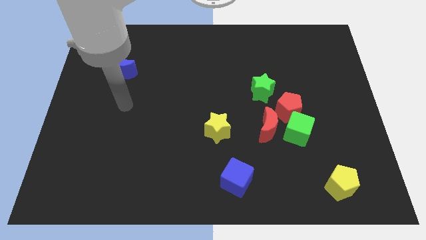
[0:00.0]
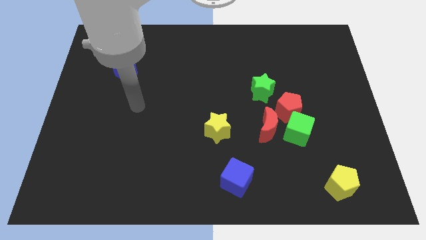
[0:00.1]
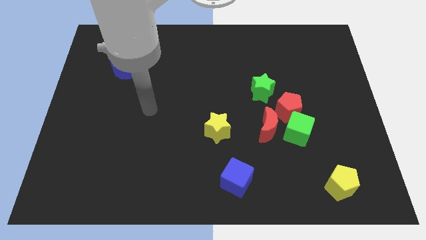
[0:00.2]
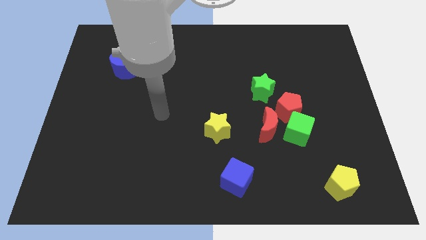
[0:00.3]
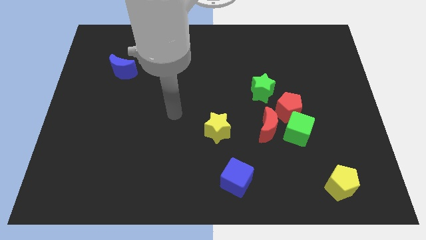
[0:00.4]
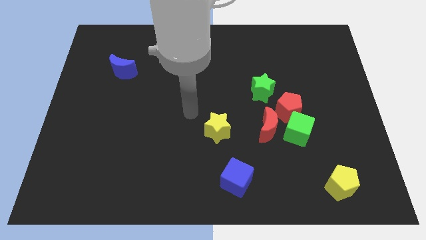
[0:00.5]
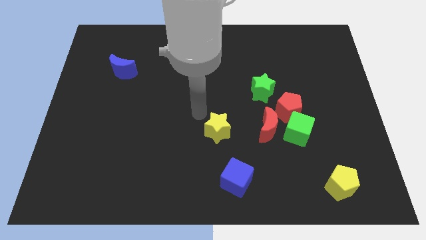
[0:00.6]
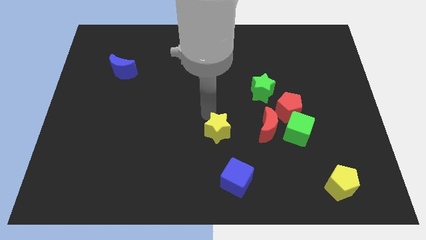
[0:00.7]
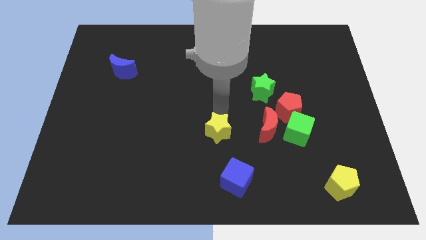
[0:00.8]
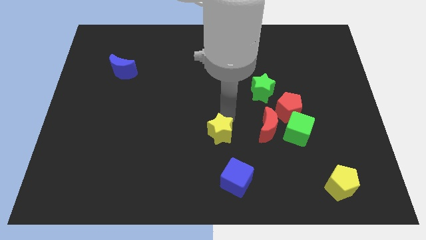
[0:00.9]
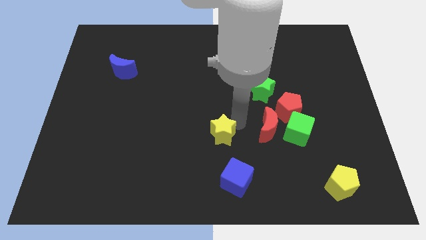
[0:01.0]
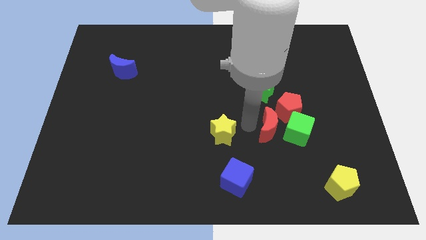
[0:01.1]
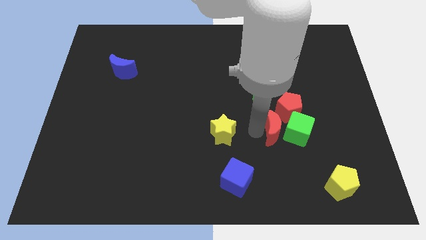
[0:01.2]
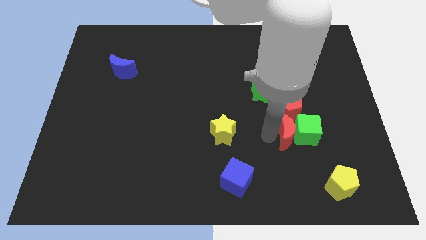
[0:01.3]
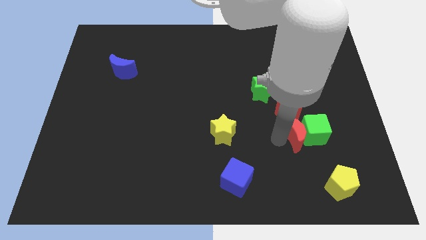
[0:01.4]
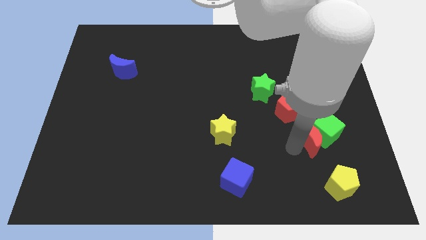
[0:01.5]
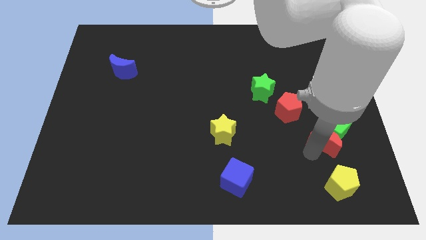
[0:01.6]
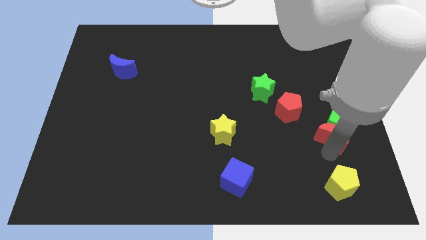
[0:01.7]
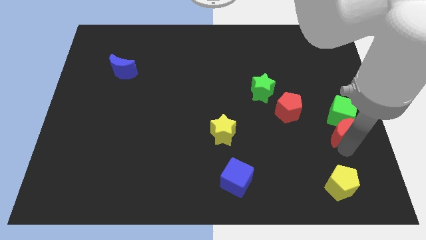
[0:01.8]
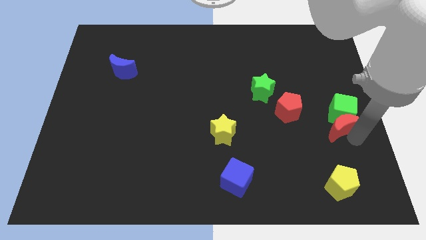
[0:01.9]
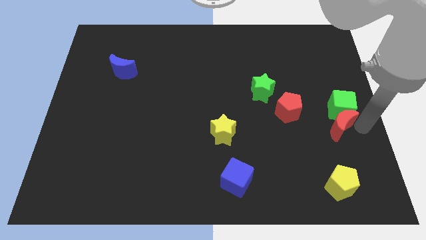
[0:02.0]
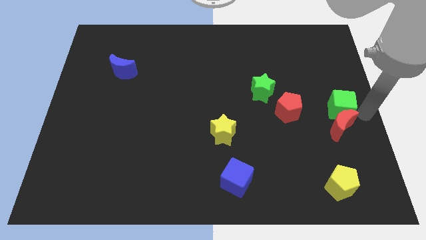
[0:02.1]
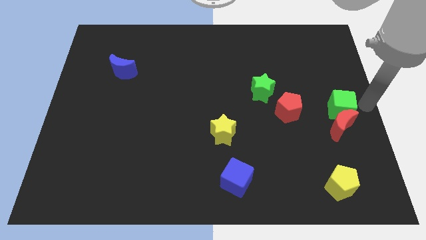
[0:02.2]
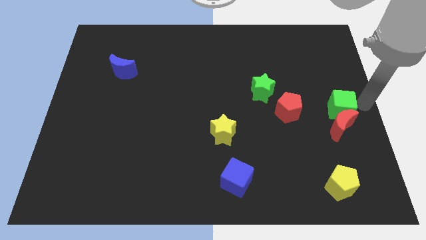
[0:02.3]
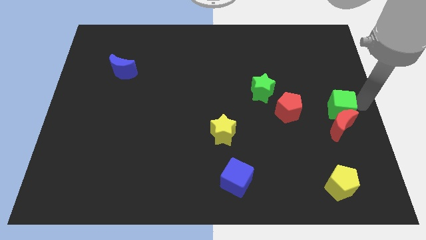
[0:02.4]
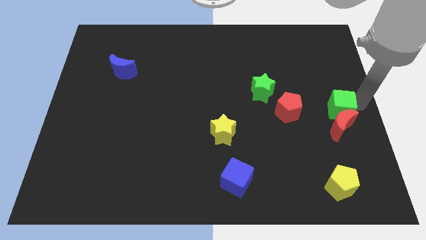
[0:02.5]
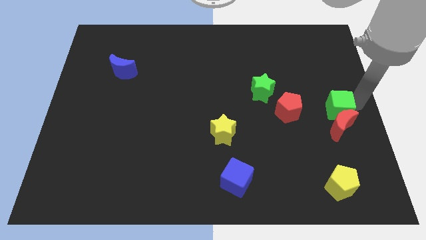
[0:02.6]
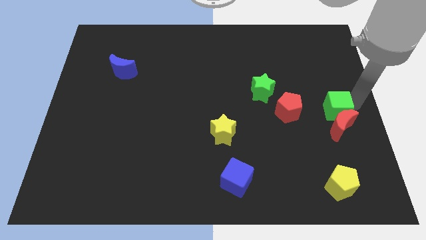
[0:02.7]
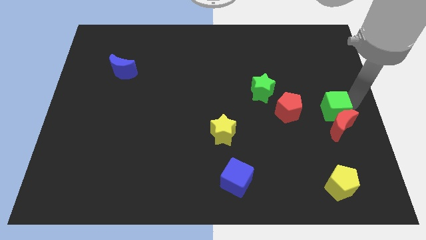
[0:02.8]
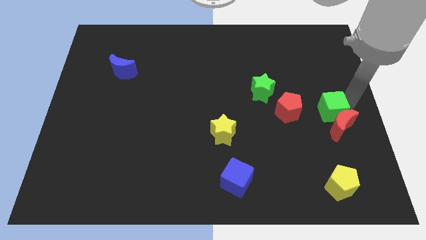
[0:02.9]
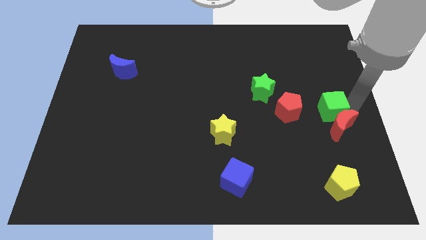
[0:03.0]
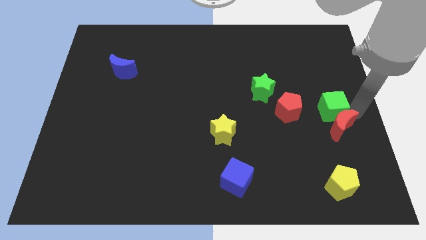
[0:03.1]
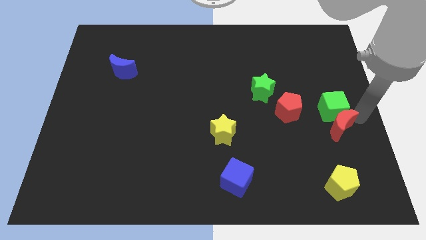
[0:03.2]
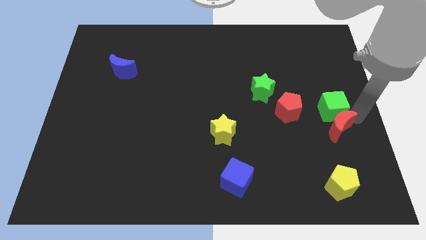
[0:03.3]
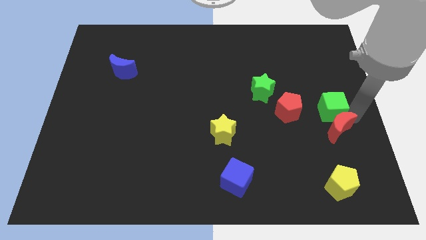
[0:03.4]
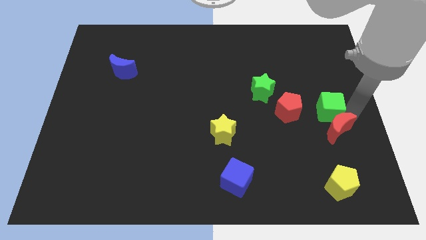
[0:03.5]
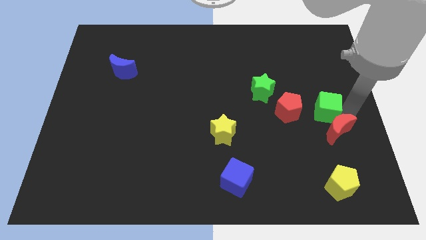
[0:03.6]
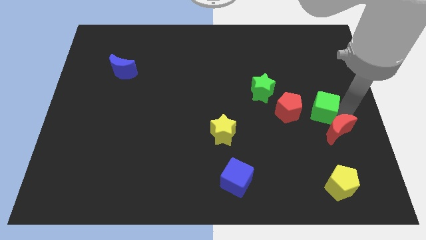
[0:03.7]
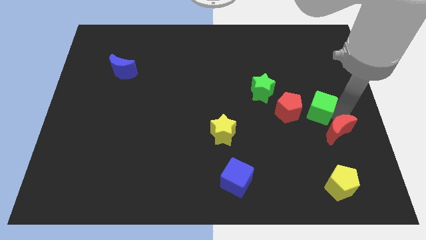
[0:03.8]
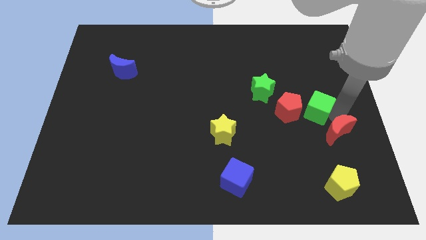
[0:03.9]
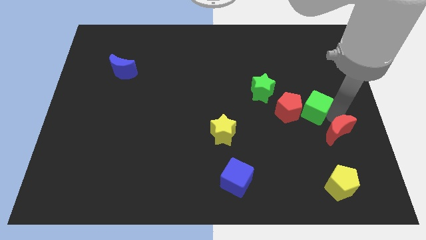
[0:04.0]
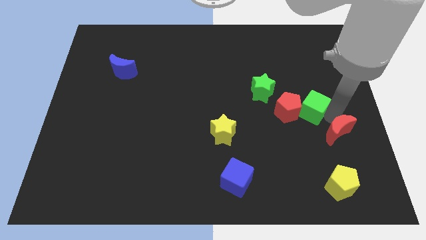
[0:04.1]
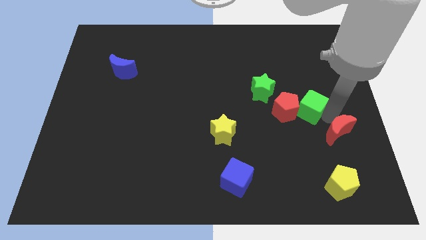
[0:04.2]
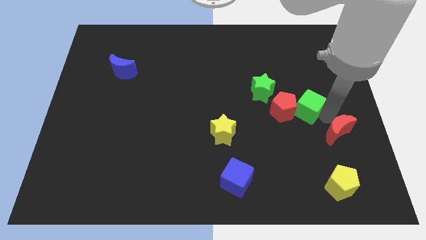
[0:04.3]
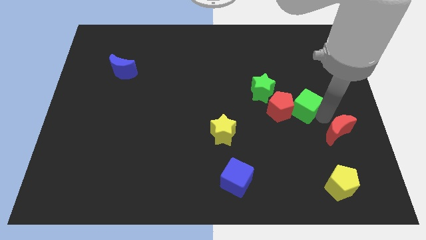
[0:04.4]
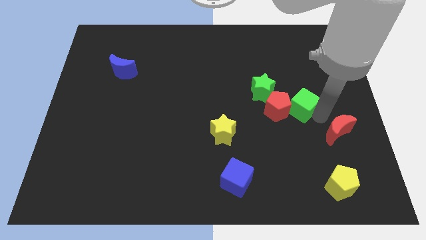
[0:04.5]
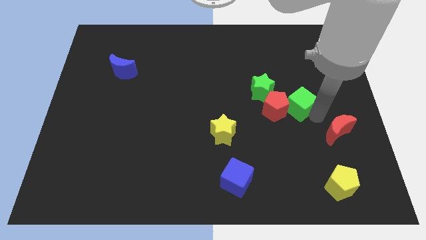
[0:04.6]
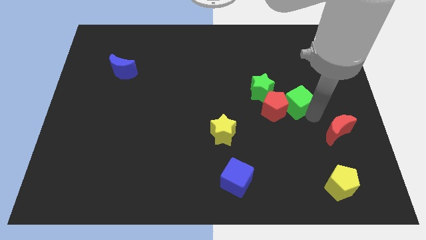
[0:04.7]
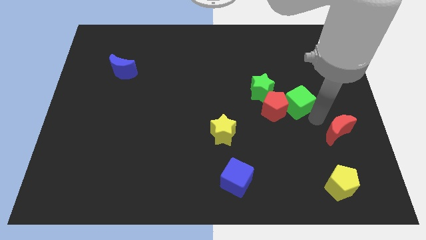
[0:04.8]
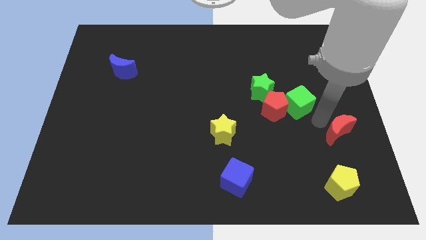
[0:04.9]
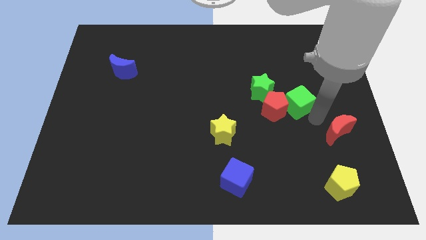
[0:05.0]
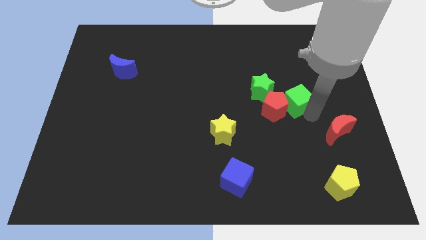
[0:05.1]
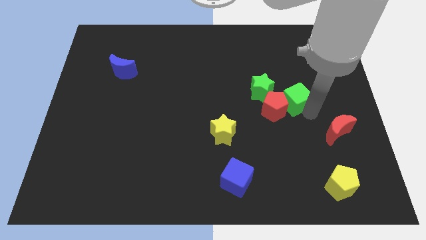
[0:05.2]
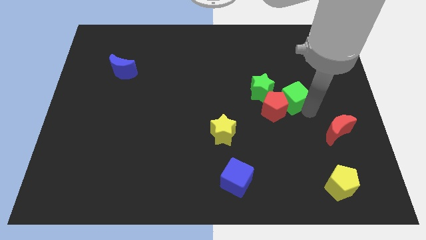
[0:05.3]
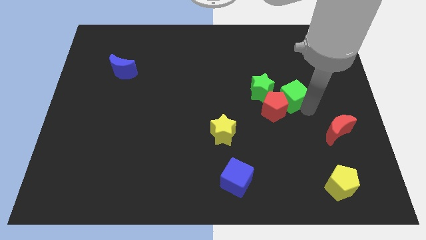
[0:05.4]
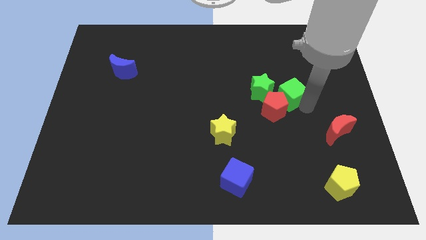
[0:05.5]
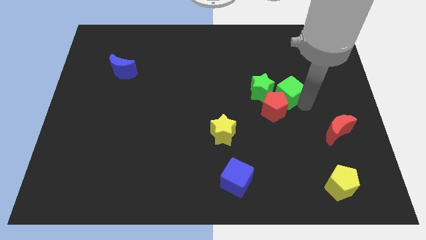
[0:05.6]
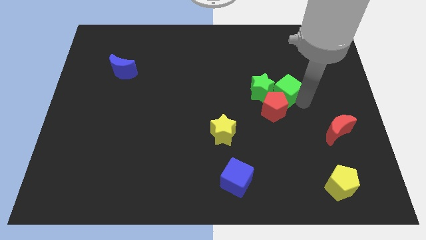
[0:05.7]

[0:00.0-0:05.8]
put the green cube next to the green star

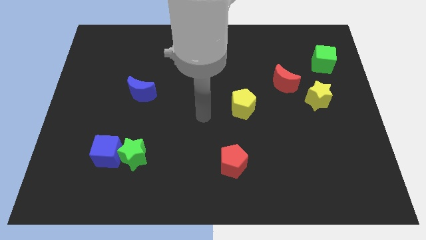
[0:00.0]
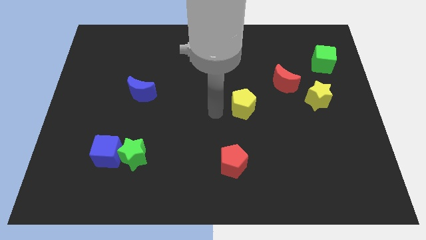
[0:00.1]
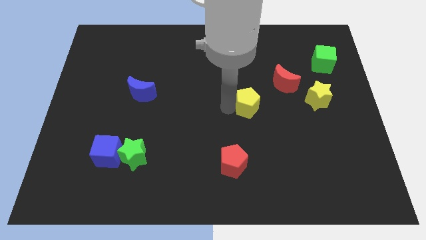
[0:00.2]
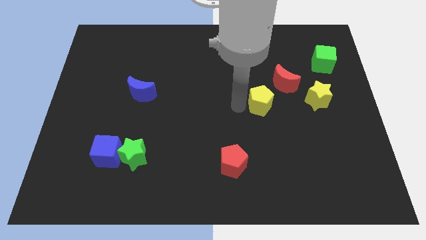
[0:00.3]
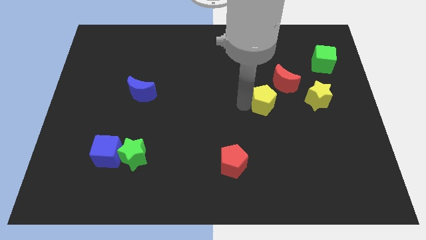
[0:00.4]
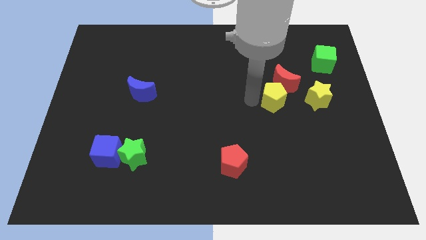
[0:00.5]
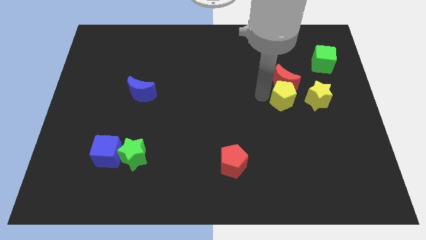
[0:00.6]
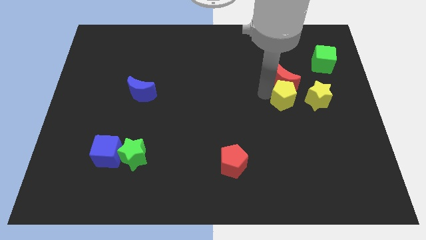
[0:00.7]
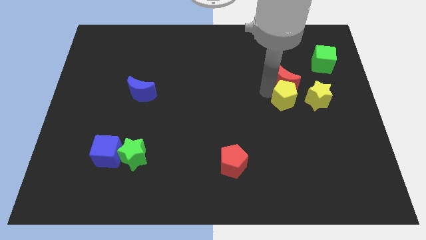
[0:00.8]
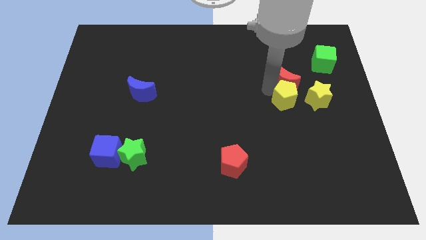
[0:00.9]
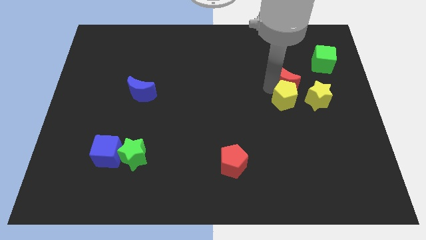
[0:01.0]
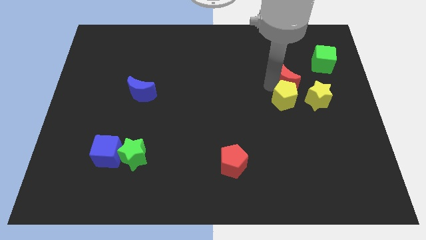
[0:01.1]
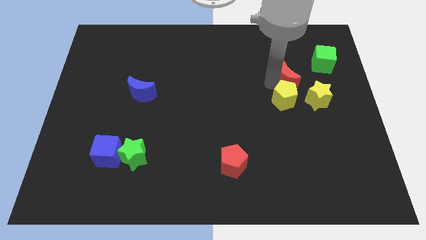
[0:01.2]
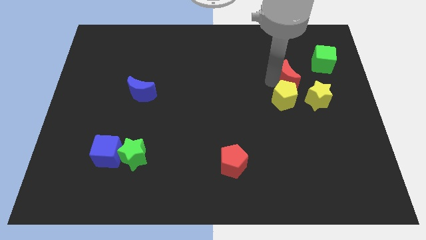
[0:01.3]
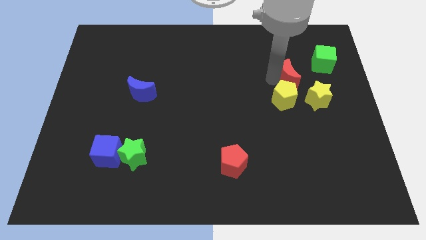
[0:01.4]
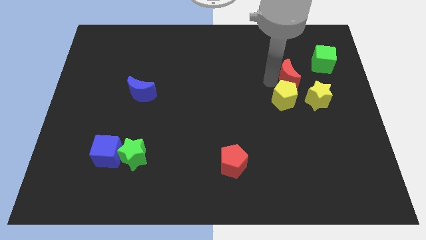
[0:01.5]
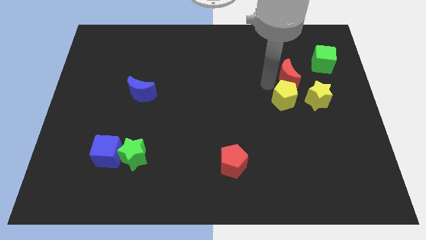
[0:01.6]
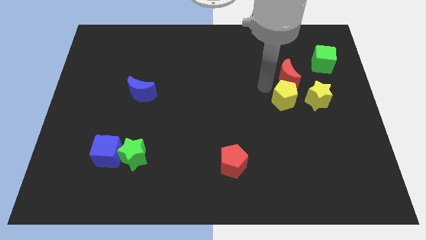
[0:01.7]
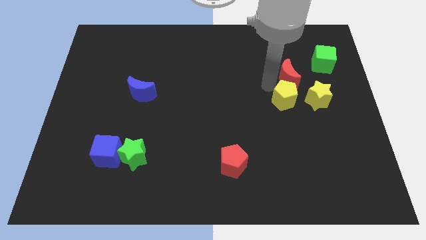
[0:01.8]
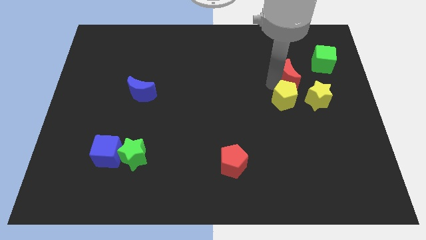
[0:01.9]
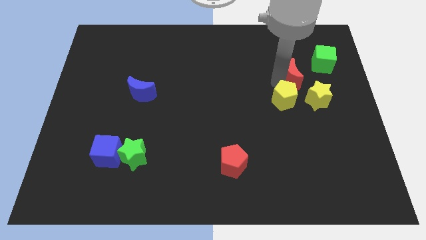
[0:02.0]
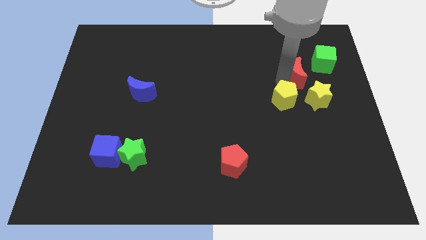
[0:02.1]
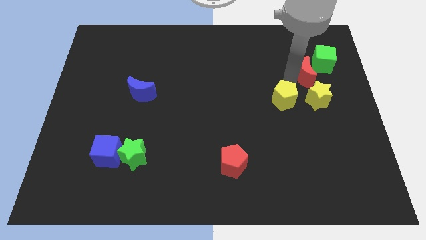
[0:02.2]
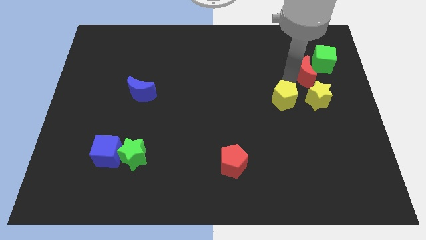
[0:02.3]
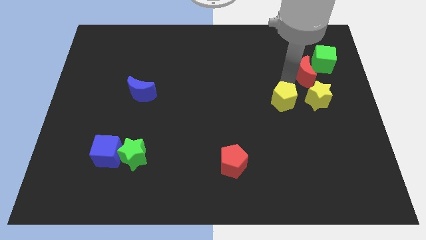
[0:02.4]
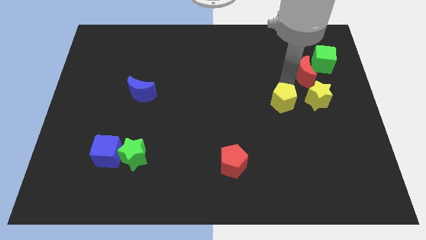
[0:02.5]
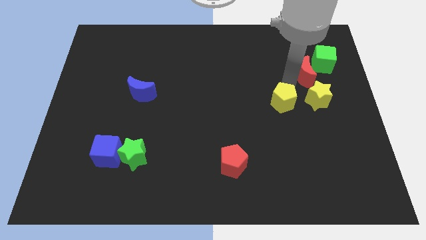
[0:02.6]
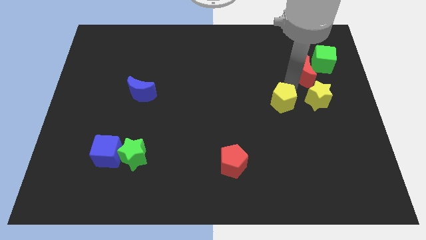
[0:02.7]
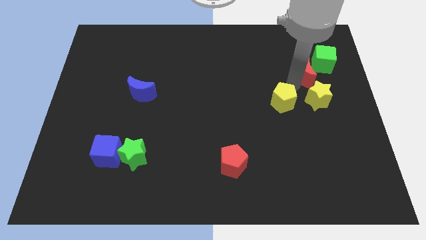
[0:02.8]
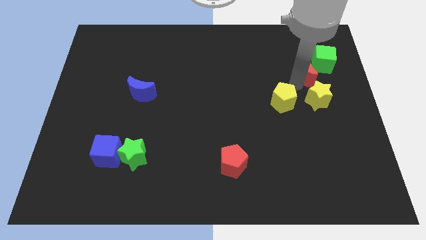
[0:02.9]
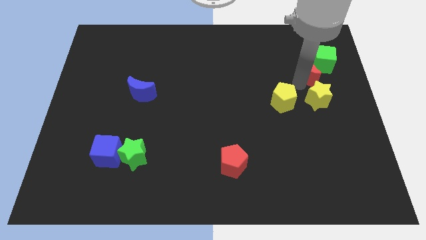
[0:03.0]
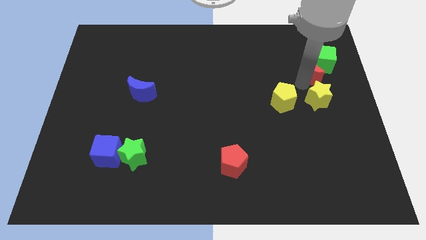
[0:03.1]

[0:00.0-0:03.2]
put the red moon towards the green cube
